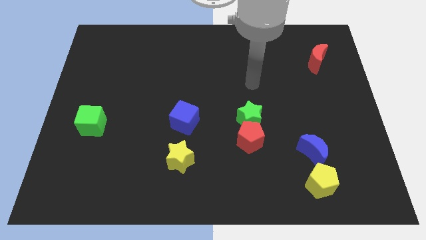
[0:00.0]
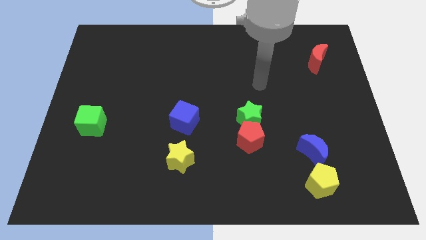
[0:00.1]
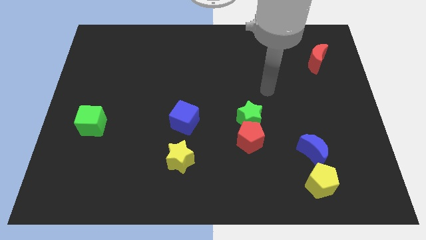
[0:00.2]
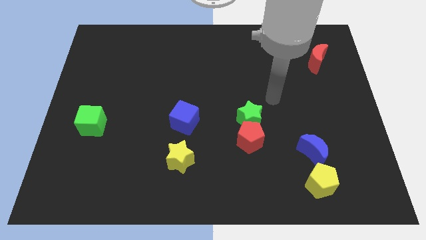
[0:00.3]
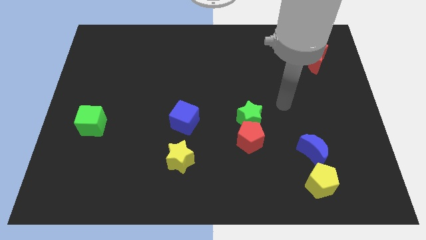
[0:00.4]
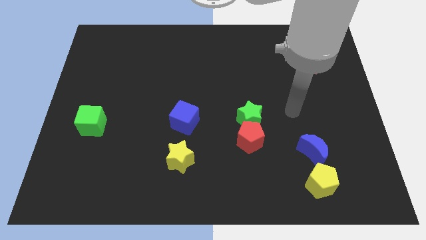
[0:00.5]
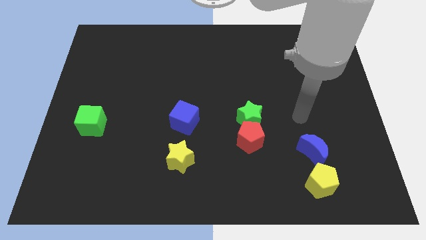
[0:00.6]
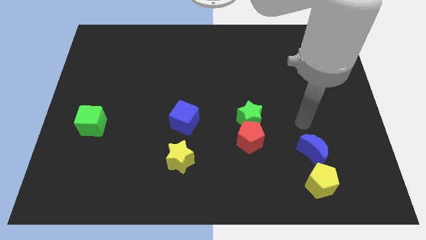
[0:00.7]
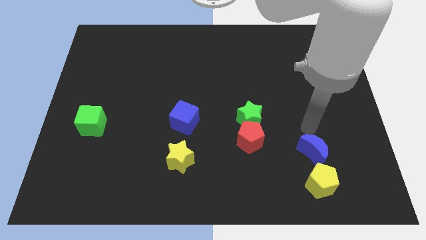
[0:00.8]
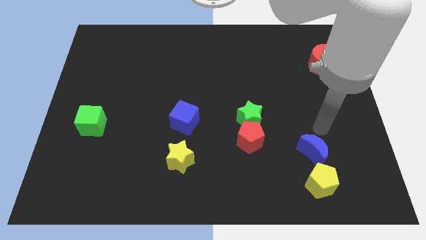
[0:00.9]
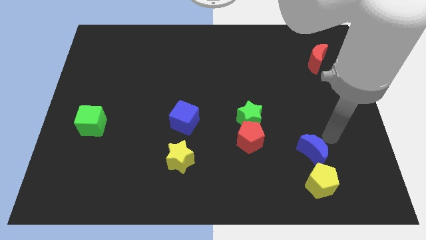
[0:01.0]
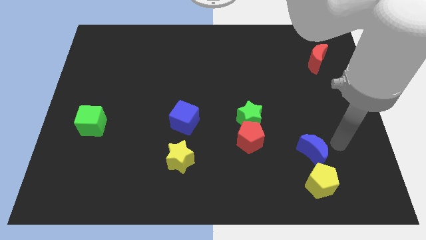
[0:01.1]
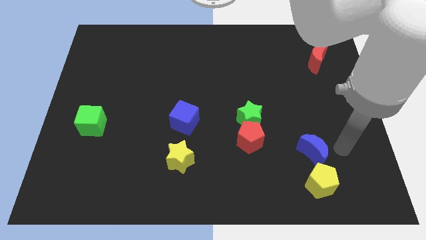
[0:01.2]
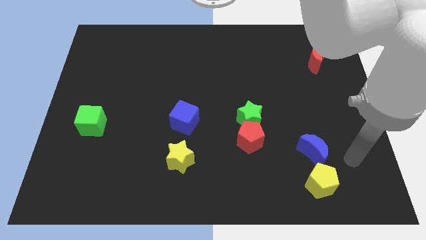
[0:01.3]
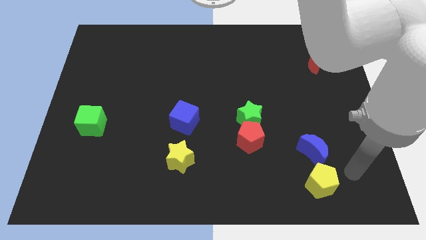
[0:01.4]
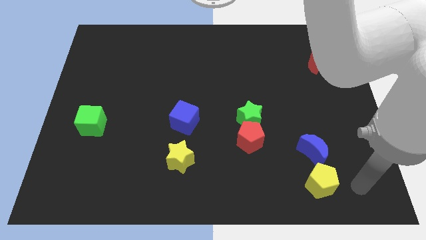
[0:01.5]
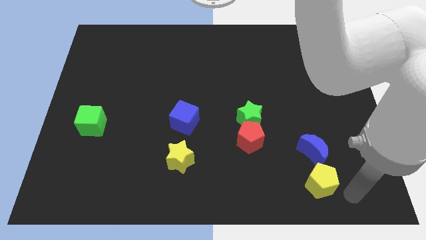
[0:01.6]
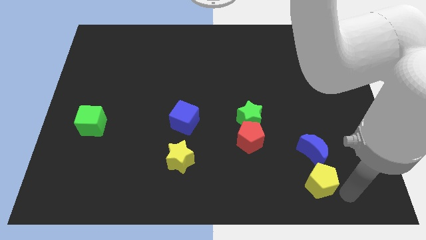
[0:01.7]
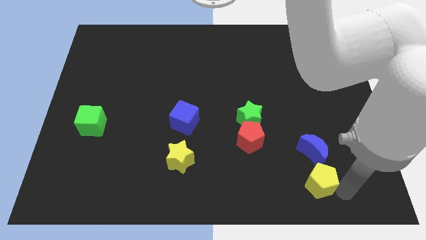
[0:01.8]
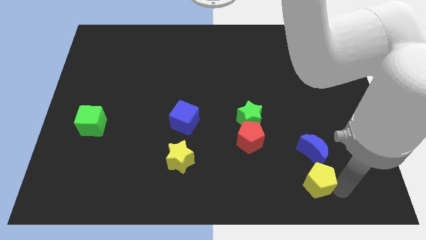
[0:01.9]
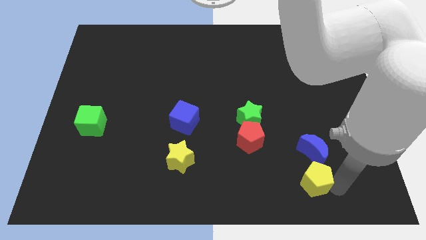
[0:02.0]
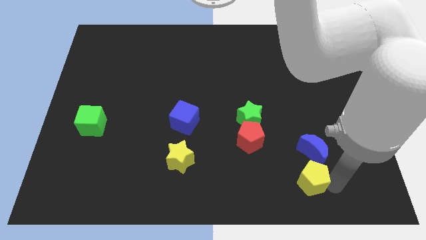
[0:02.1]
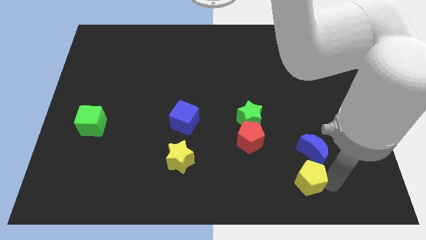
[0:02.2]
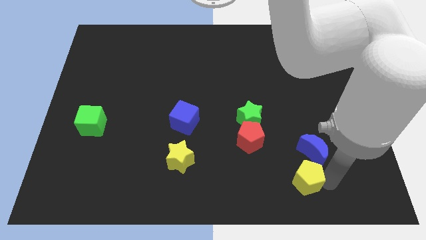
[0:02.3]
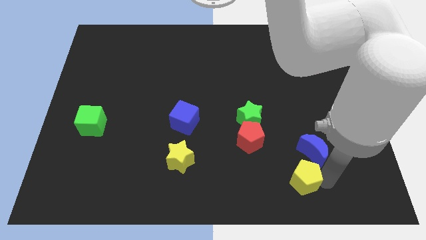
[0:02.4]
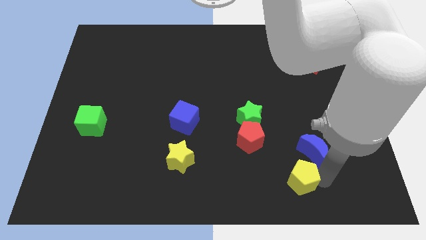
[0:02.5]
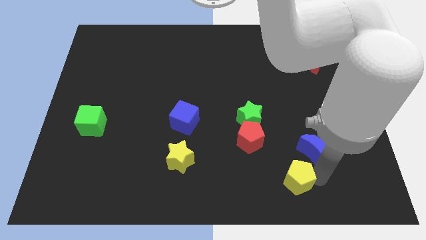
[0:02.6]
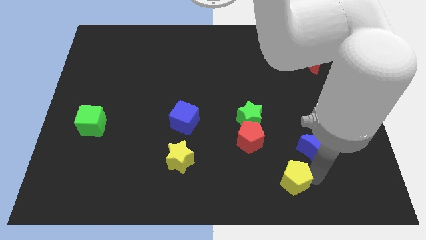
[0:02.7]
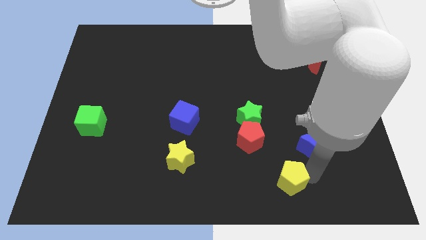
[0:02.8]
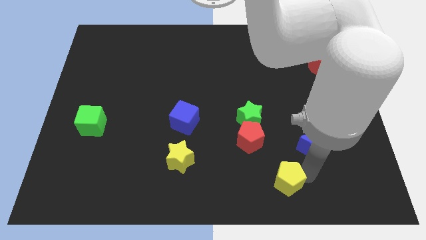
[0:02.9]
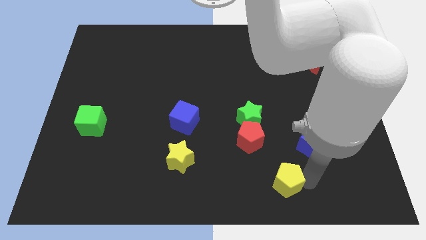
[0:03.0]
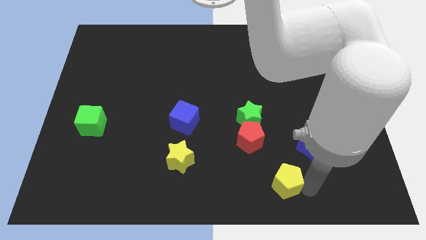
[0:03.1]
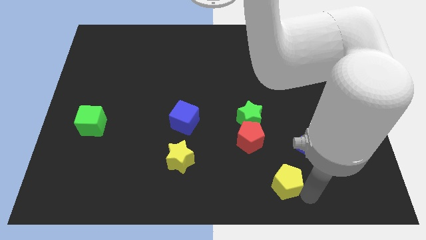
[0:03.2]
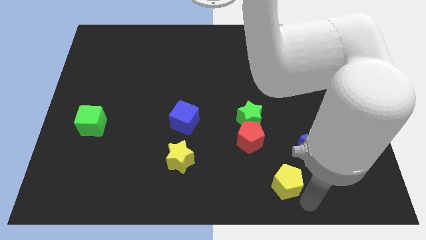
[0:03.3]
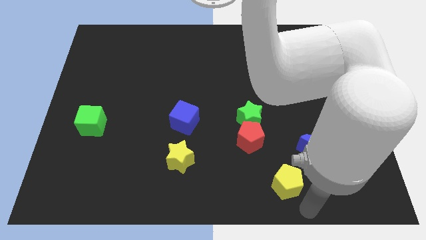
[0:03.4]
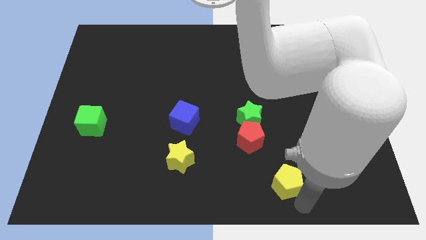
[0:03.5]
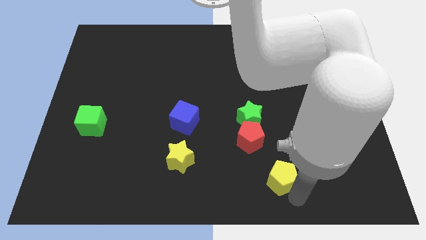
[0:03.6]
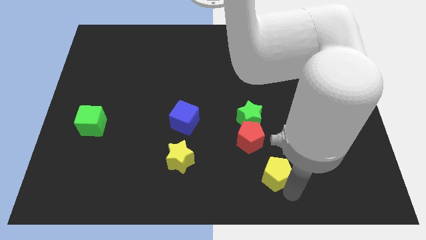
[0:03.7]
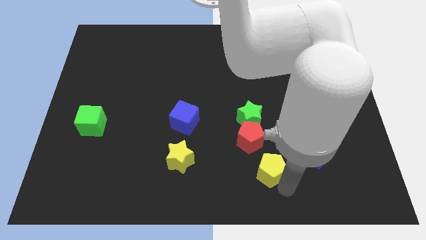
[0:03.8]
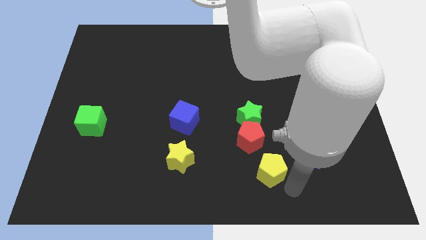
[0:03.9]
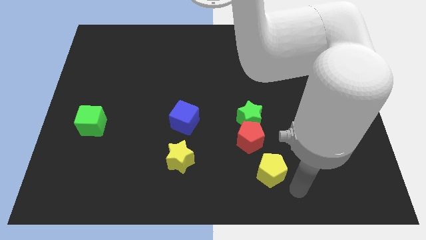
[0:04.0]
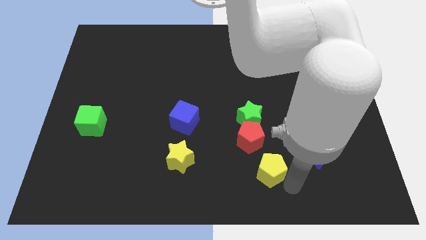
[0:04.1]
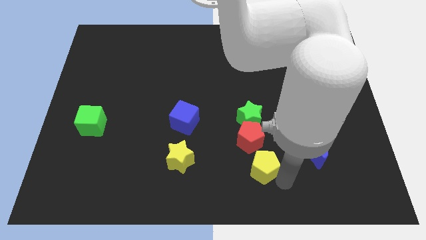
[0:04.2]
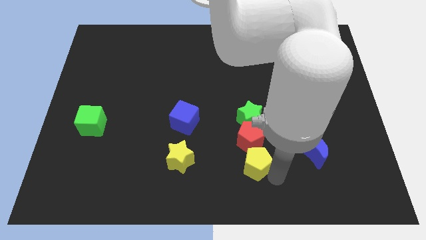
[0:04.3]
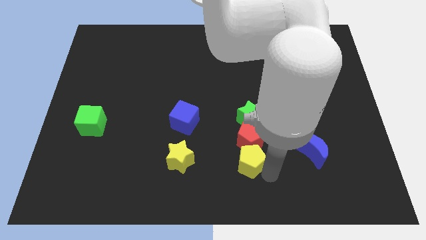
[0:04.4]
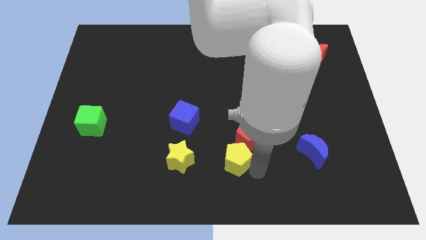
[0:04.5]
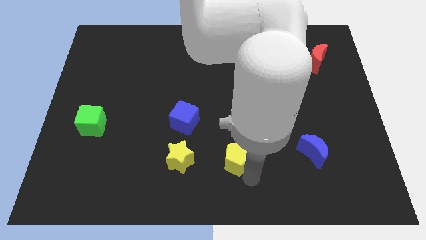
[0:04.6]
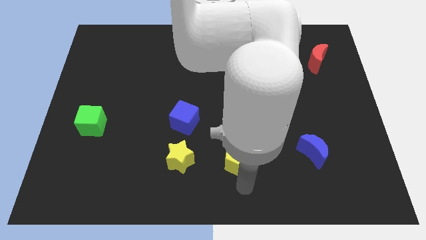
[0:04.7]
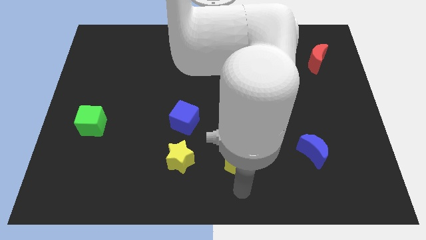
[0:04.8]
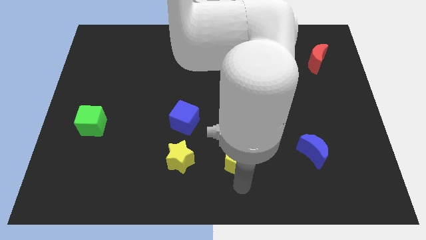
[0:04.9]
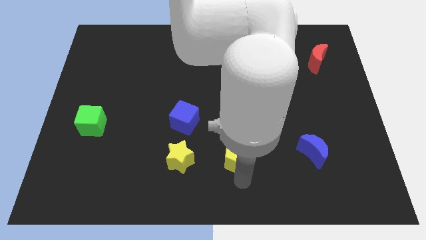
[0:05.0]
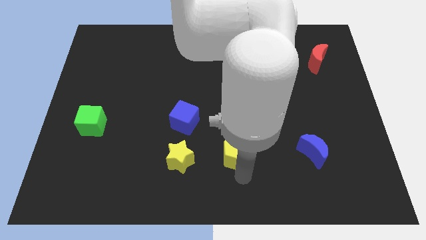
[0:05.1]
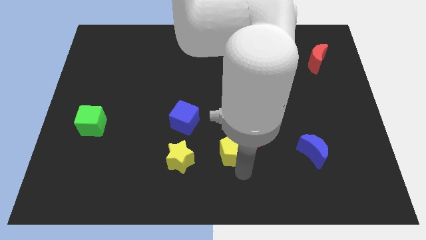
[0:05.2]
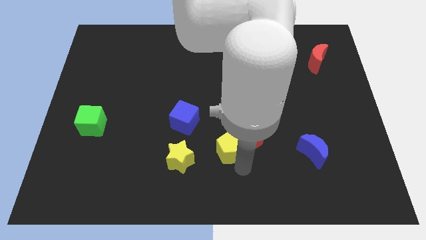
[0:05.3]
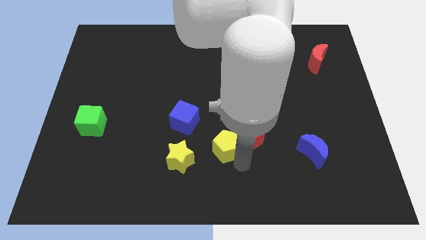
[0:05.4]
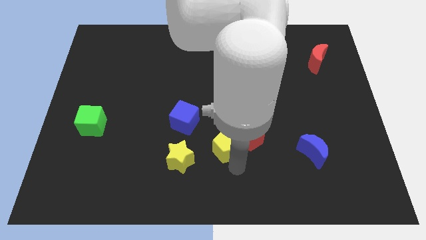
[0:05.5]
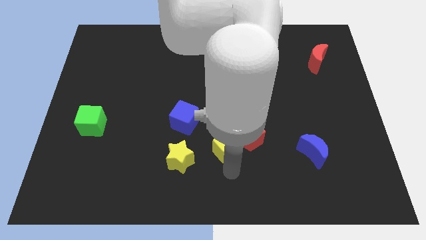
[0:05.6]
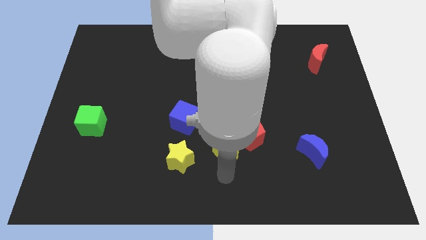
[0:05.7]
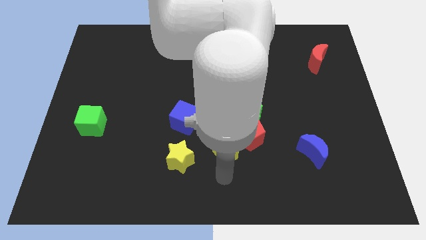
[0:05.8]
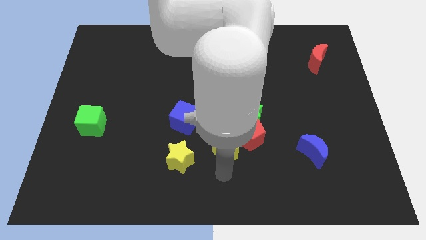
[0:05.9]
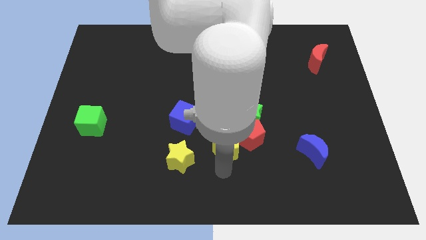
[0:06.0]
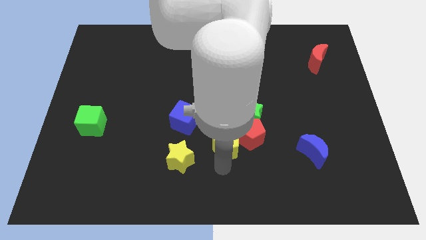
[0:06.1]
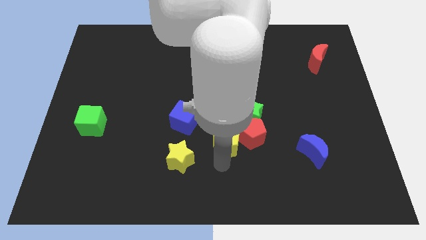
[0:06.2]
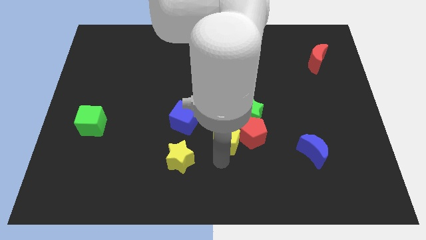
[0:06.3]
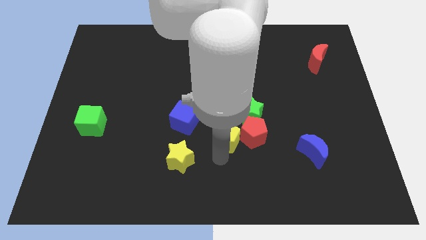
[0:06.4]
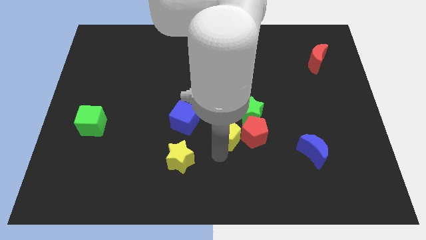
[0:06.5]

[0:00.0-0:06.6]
put the yellow pentagon just right of the blue cube

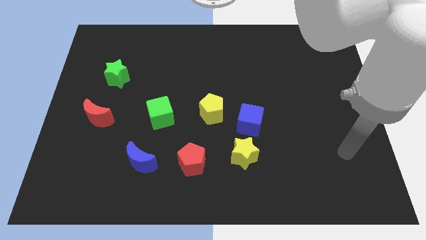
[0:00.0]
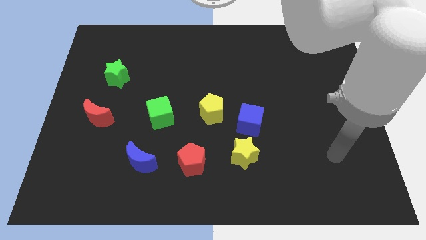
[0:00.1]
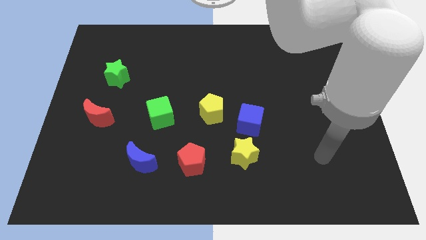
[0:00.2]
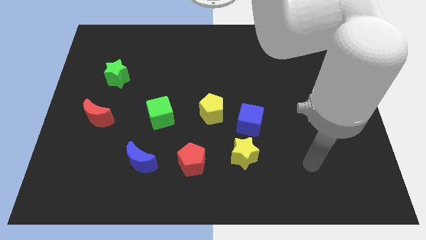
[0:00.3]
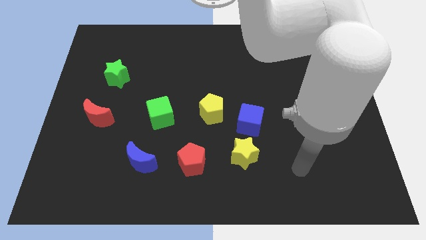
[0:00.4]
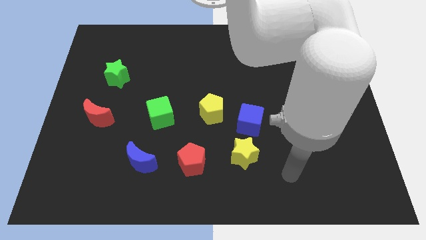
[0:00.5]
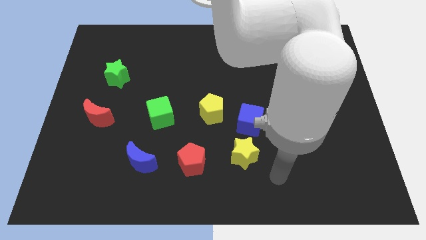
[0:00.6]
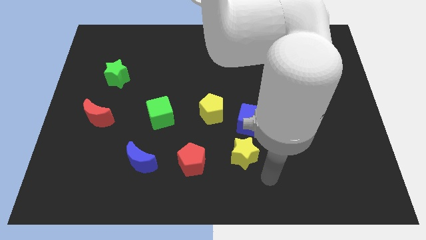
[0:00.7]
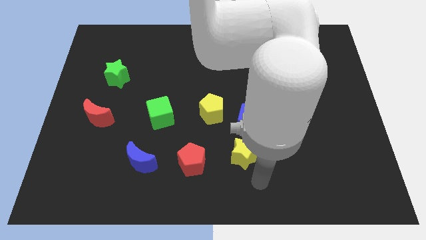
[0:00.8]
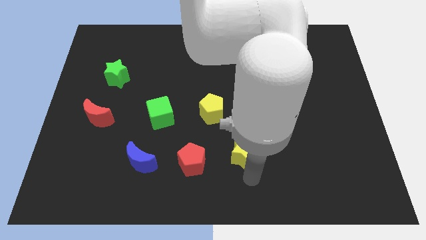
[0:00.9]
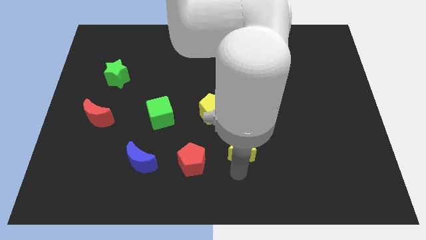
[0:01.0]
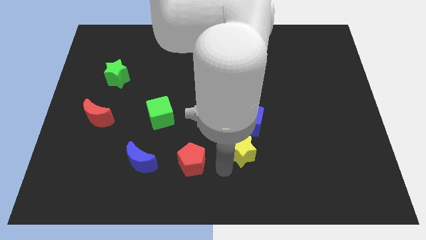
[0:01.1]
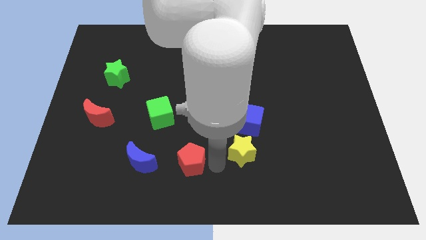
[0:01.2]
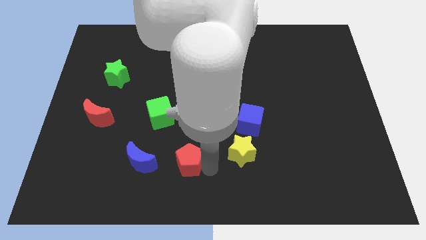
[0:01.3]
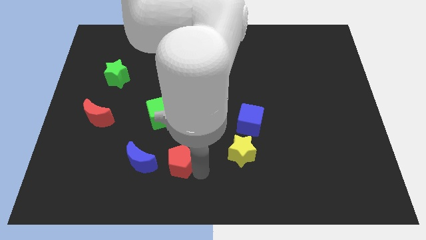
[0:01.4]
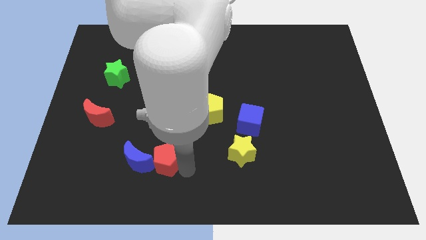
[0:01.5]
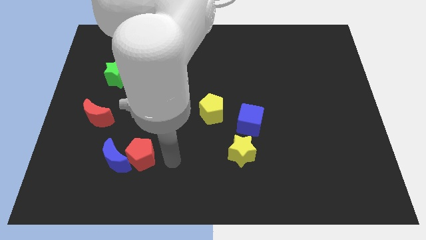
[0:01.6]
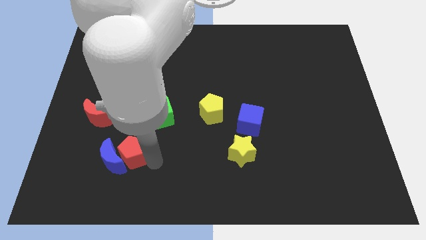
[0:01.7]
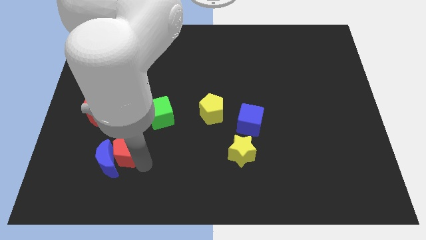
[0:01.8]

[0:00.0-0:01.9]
push the blue moon to the bottom side of the red moon
